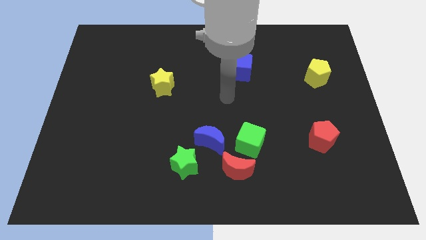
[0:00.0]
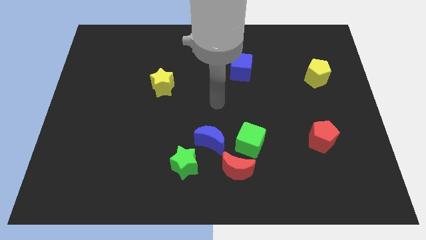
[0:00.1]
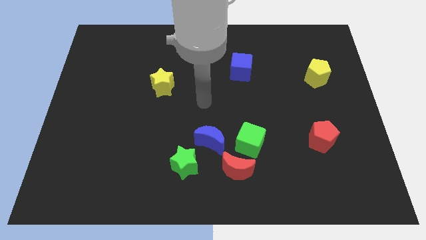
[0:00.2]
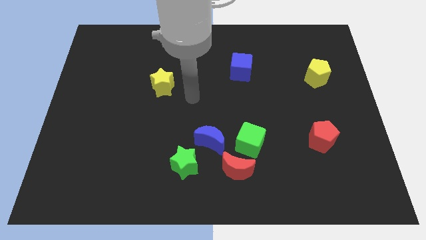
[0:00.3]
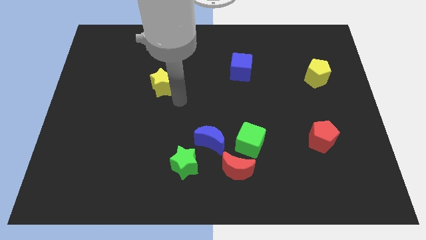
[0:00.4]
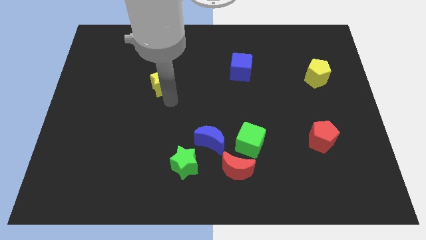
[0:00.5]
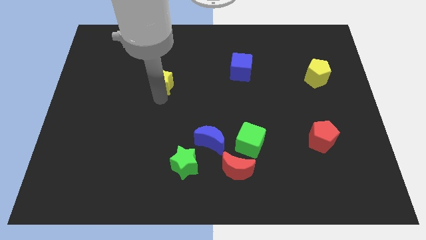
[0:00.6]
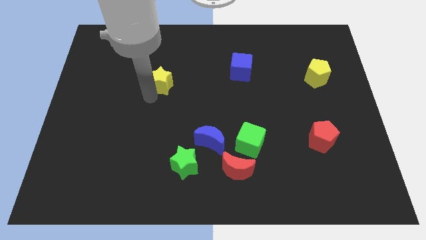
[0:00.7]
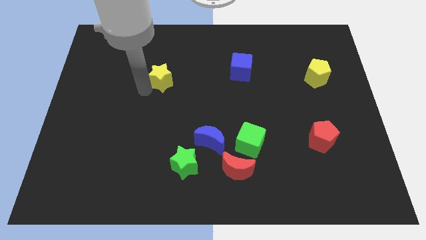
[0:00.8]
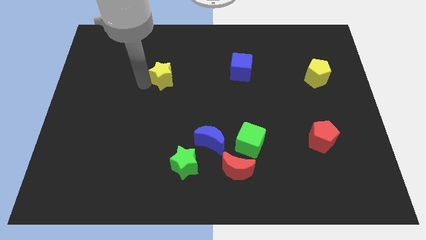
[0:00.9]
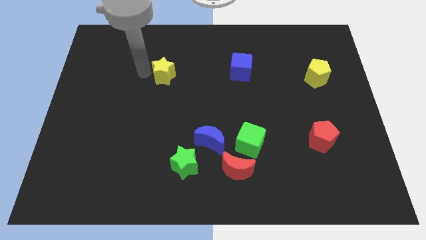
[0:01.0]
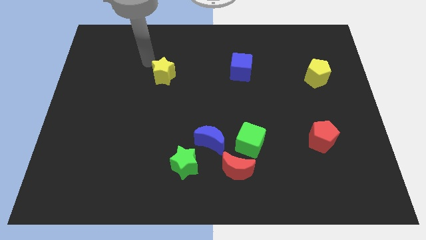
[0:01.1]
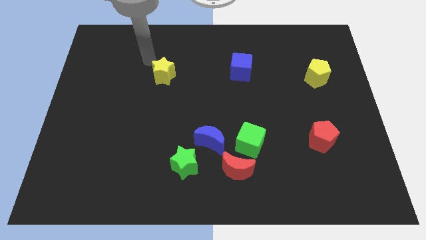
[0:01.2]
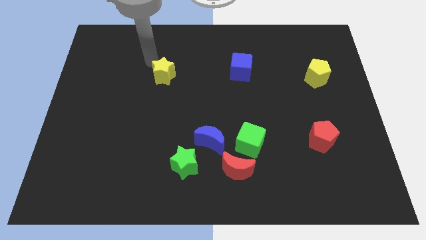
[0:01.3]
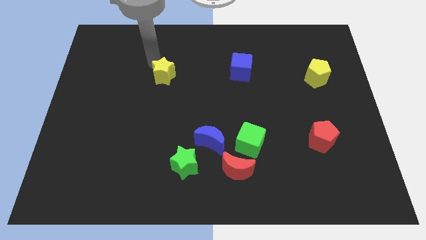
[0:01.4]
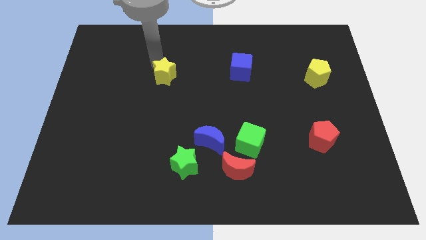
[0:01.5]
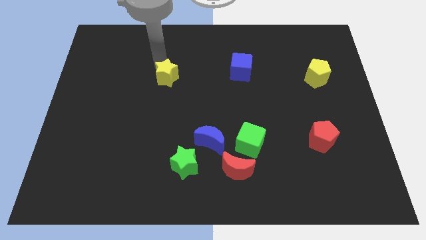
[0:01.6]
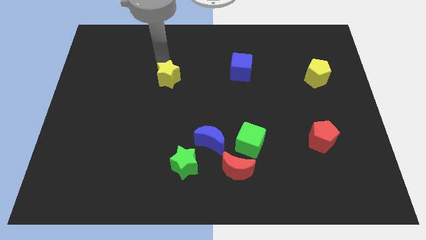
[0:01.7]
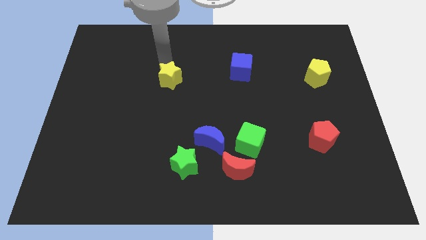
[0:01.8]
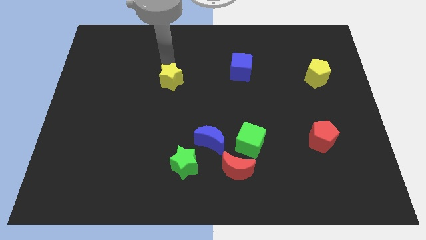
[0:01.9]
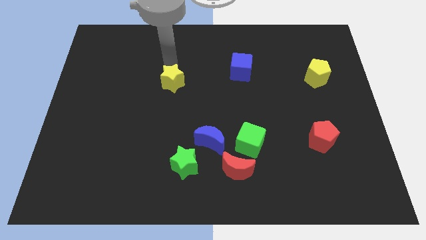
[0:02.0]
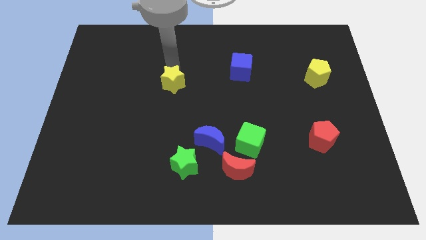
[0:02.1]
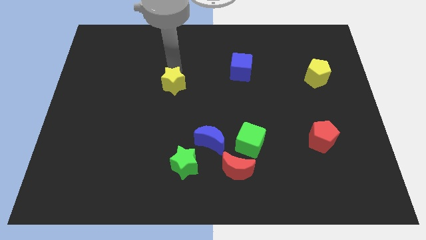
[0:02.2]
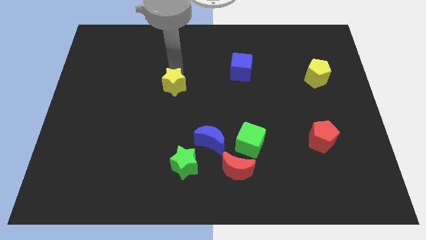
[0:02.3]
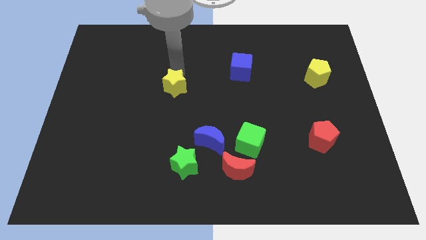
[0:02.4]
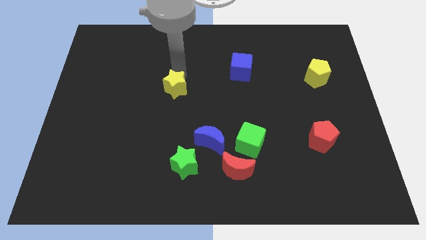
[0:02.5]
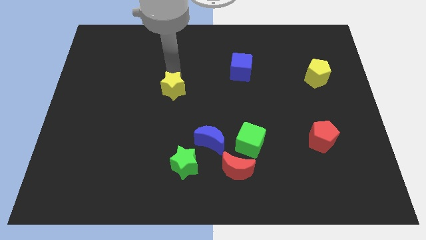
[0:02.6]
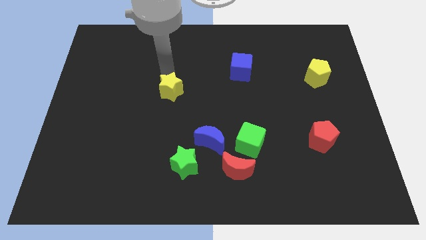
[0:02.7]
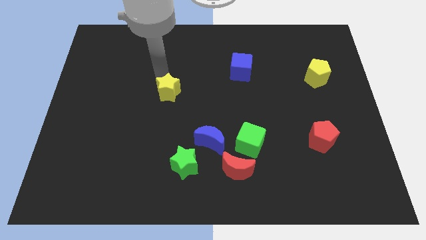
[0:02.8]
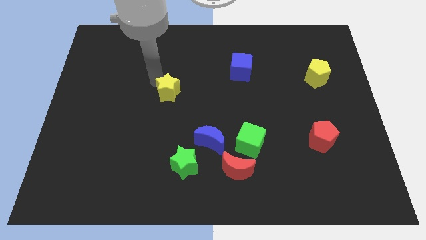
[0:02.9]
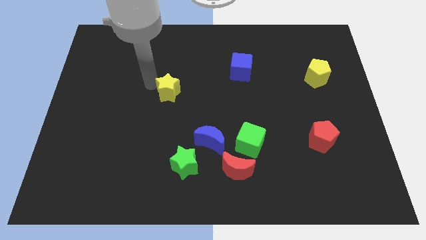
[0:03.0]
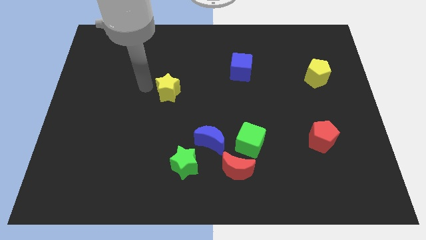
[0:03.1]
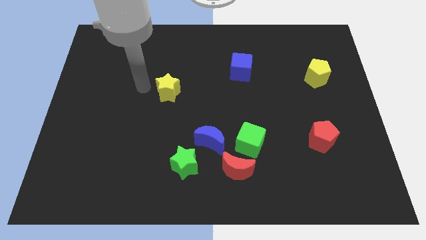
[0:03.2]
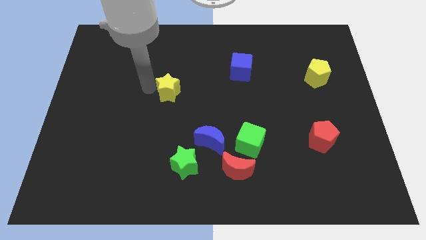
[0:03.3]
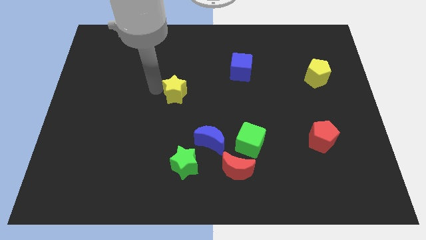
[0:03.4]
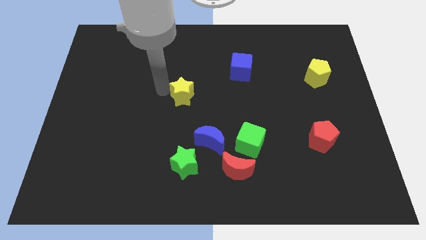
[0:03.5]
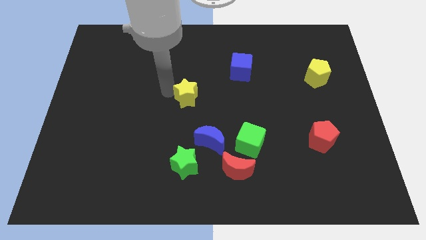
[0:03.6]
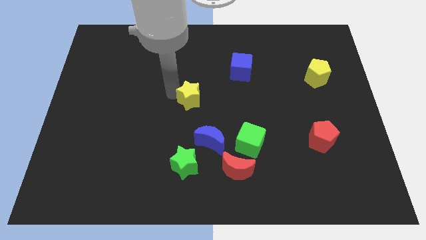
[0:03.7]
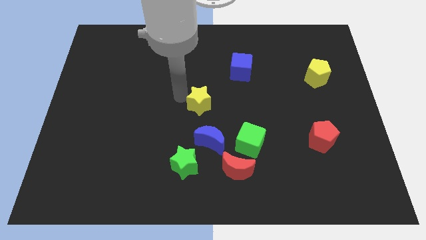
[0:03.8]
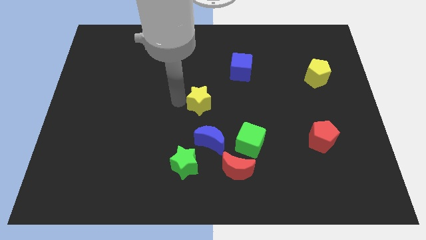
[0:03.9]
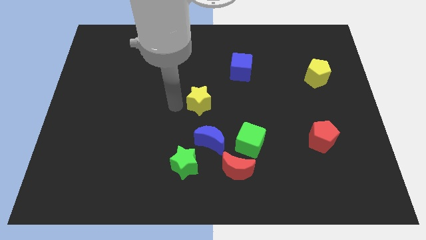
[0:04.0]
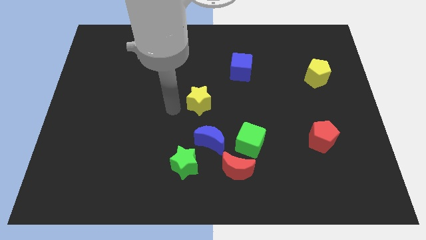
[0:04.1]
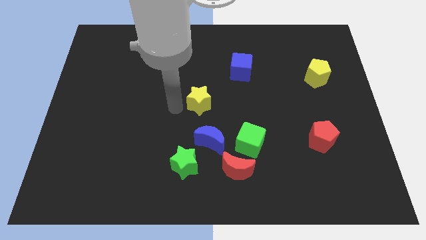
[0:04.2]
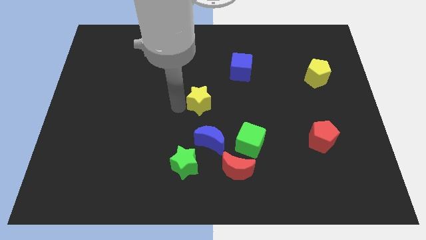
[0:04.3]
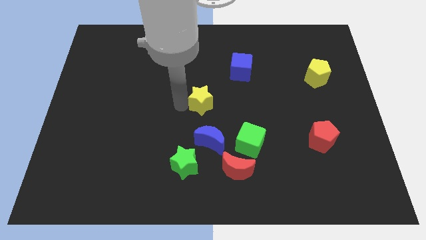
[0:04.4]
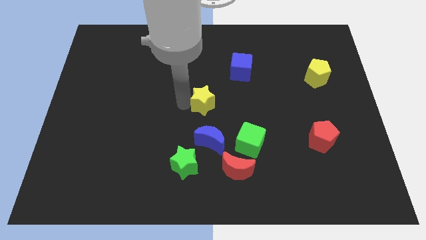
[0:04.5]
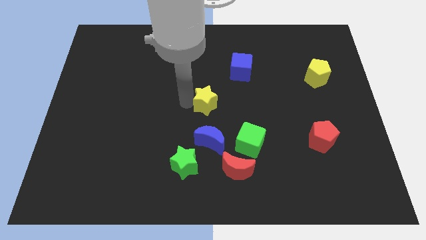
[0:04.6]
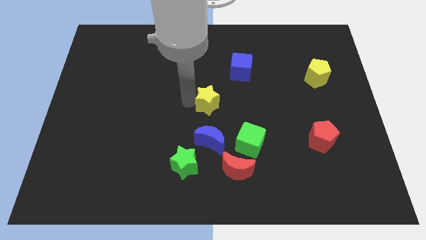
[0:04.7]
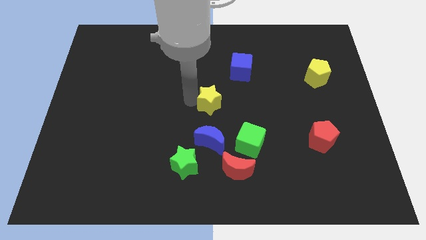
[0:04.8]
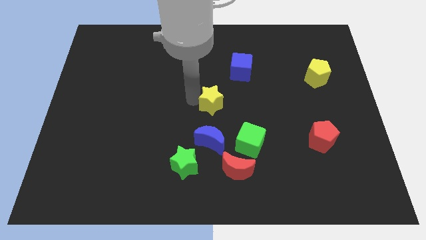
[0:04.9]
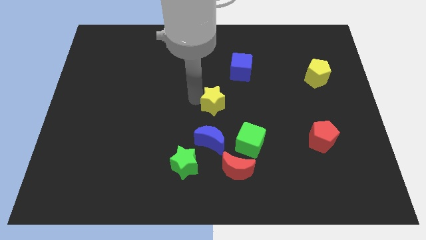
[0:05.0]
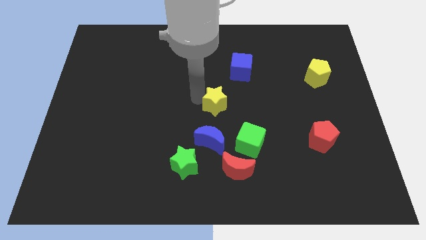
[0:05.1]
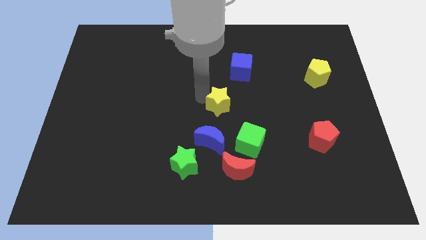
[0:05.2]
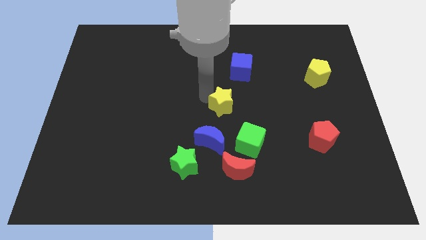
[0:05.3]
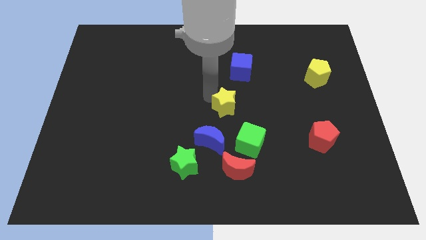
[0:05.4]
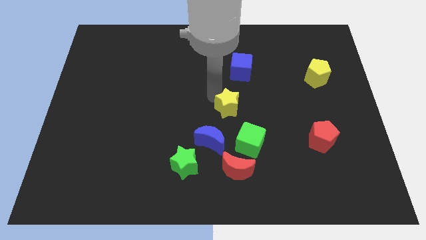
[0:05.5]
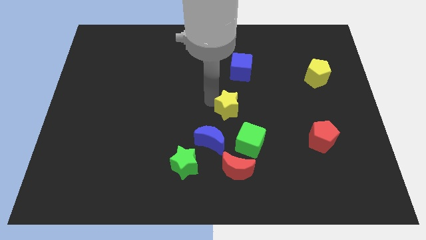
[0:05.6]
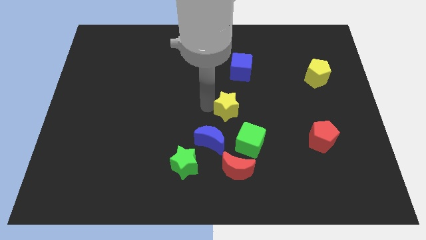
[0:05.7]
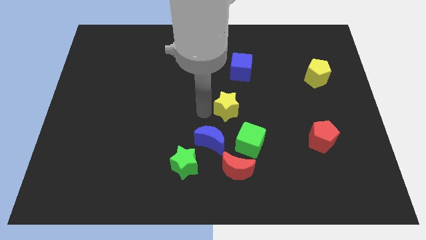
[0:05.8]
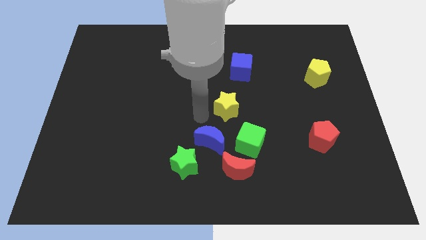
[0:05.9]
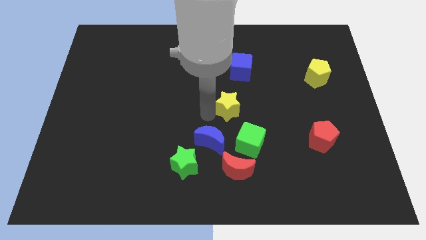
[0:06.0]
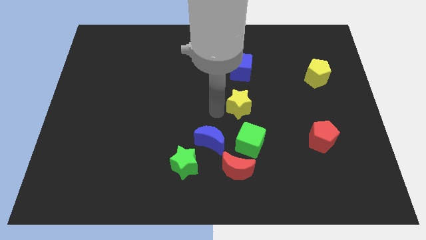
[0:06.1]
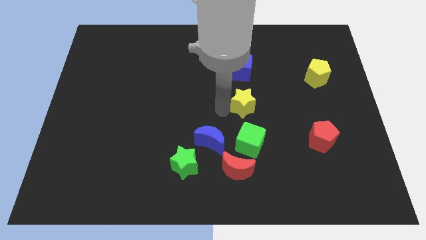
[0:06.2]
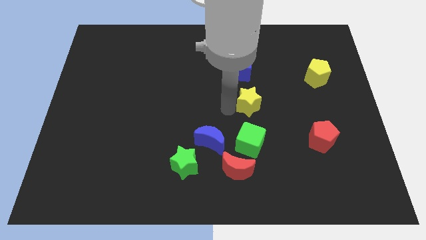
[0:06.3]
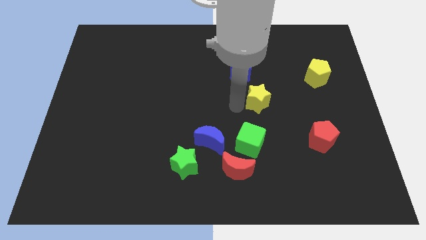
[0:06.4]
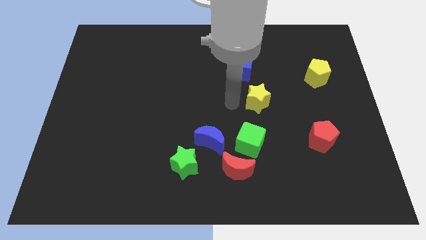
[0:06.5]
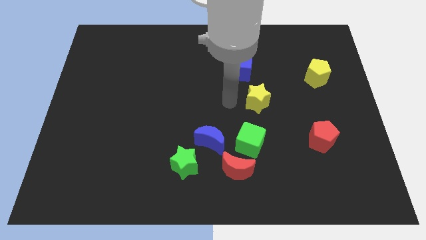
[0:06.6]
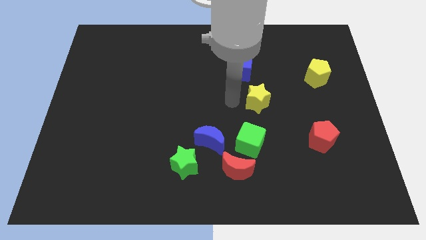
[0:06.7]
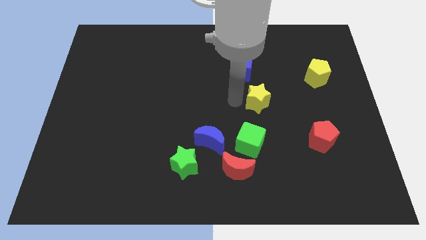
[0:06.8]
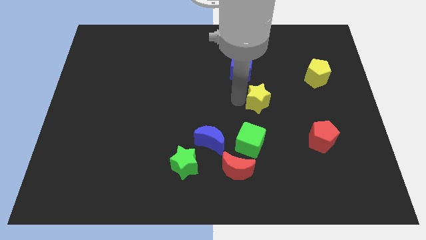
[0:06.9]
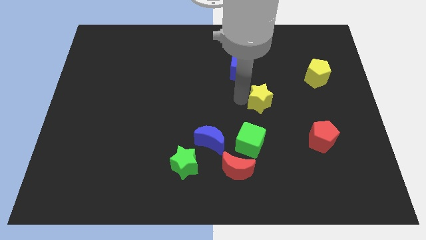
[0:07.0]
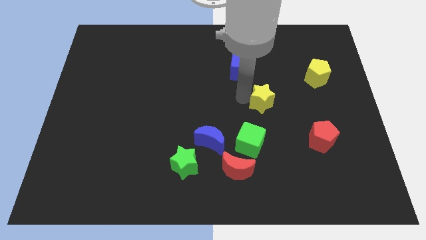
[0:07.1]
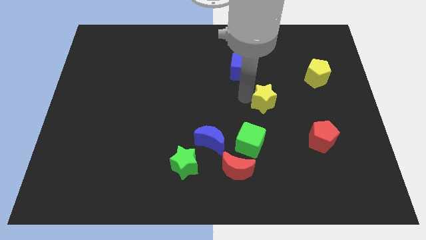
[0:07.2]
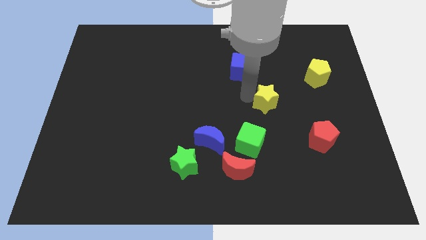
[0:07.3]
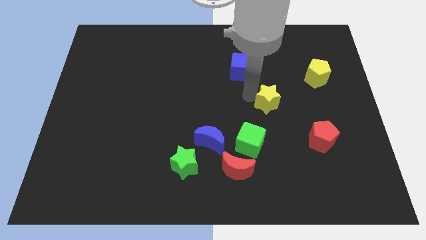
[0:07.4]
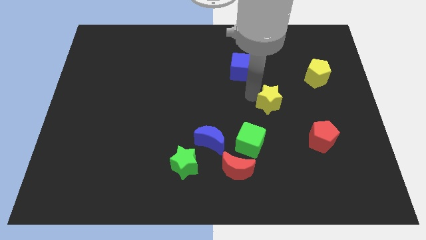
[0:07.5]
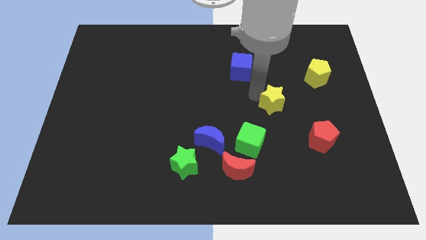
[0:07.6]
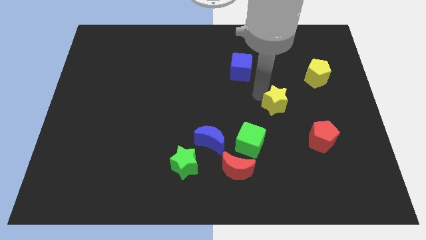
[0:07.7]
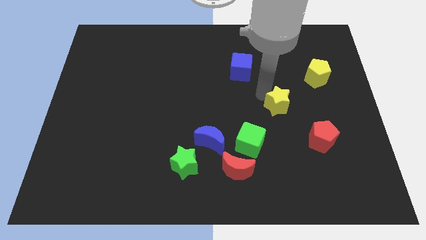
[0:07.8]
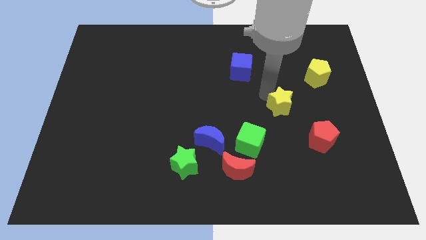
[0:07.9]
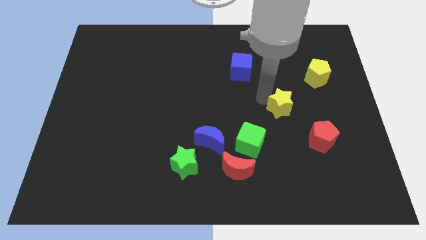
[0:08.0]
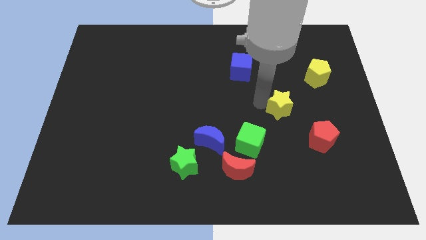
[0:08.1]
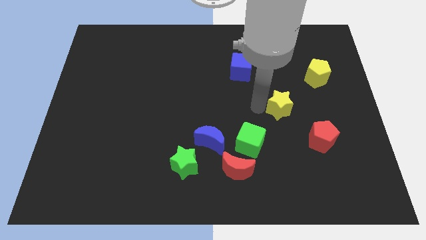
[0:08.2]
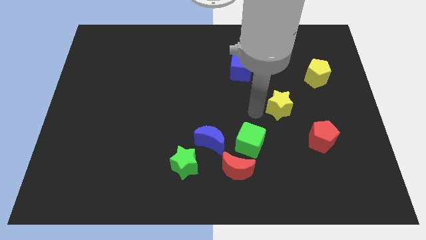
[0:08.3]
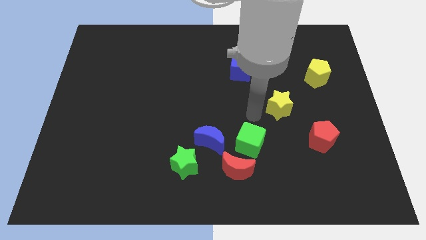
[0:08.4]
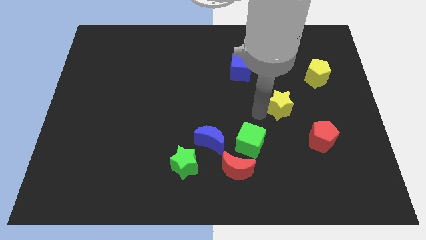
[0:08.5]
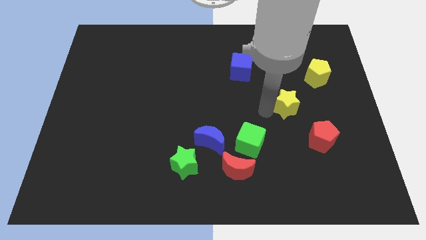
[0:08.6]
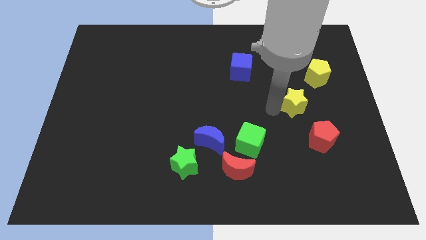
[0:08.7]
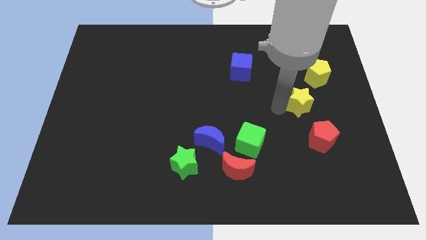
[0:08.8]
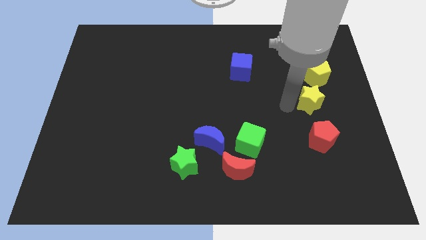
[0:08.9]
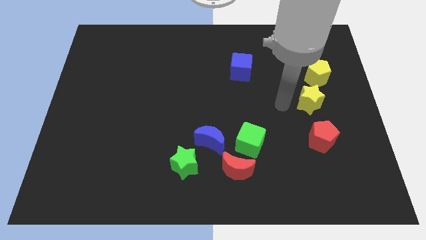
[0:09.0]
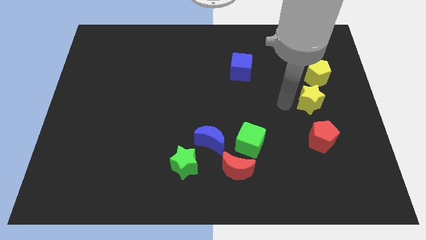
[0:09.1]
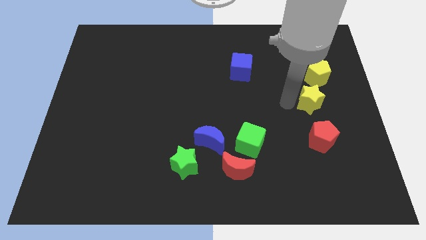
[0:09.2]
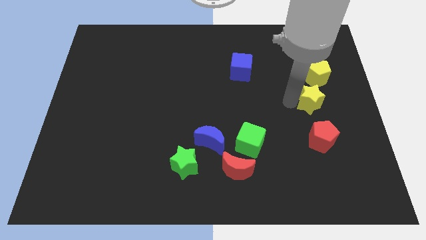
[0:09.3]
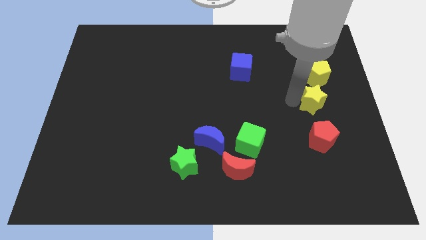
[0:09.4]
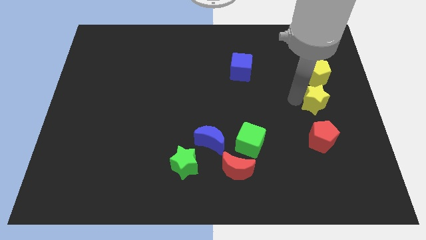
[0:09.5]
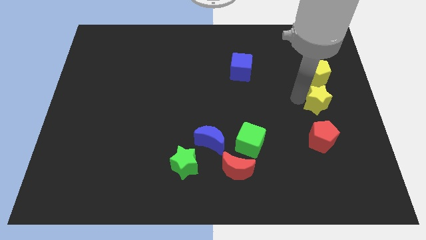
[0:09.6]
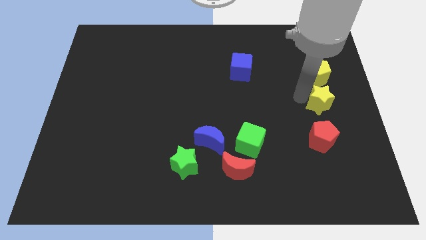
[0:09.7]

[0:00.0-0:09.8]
move the yellow star to the right side of the board
